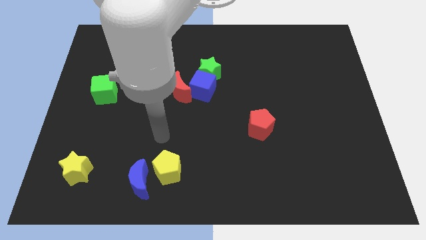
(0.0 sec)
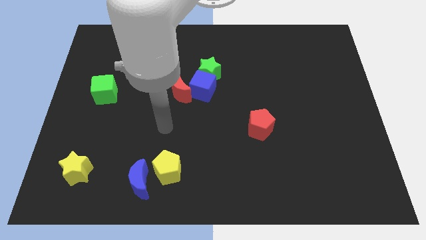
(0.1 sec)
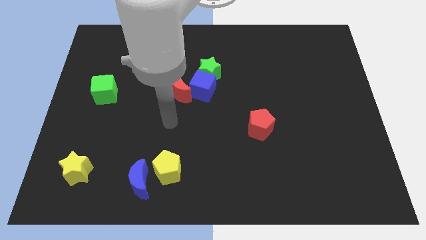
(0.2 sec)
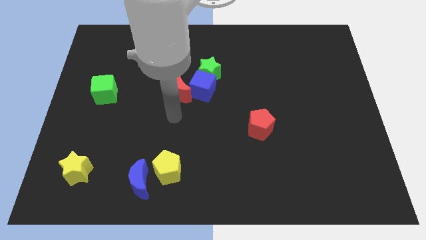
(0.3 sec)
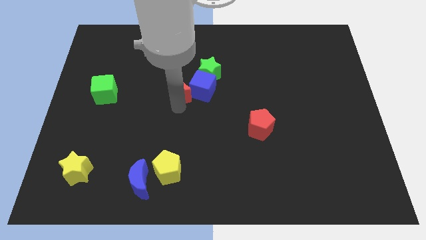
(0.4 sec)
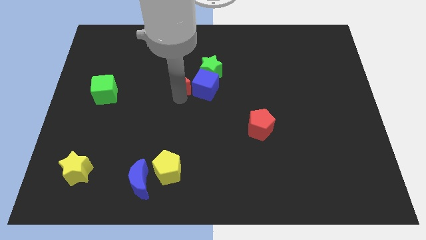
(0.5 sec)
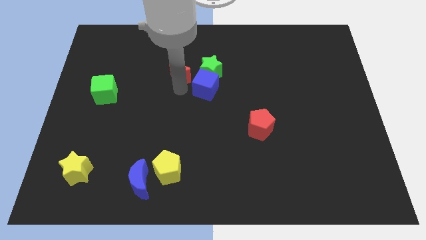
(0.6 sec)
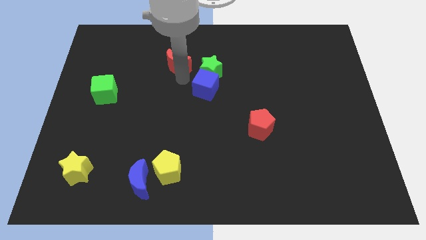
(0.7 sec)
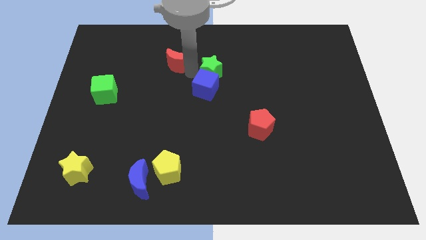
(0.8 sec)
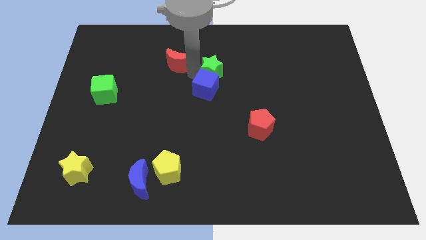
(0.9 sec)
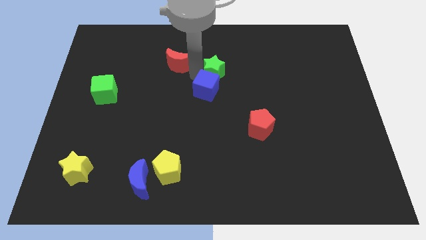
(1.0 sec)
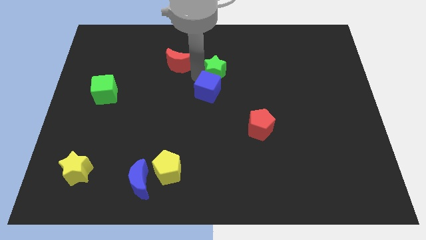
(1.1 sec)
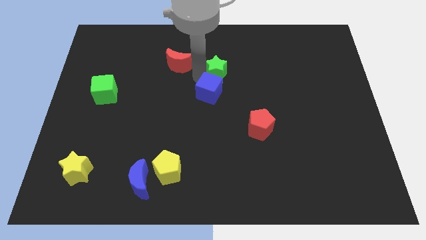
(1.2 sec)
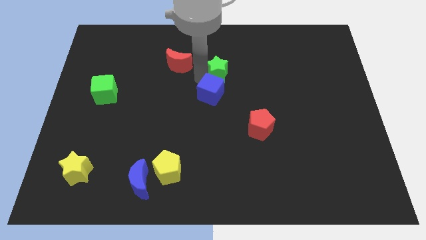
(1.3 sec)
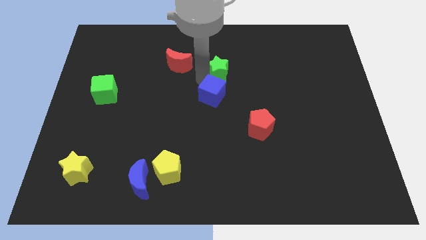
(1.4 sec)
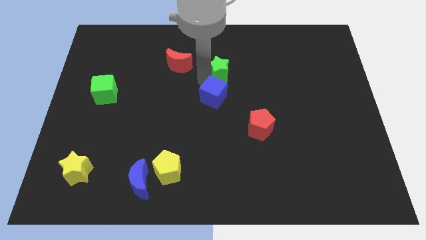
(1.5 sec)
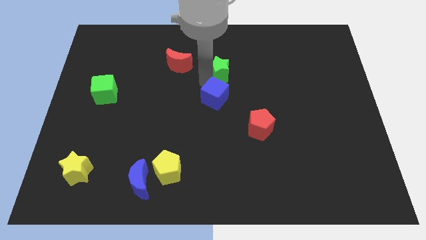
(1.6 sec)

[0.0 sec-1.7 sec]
separate the blue cube from the green star and red moon

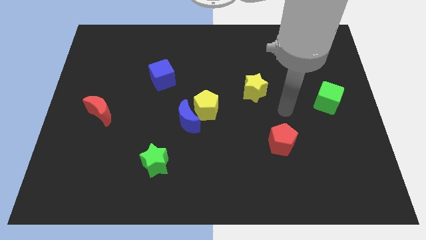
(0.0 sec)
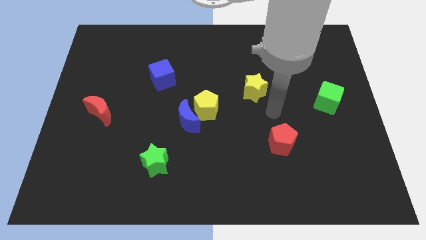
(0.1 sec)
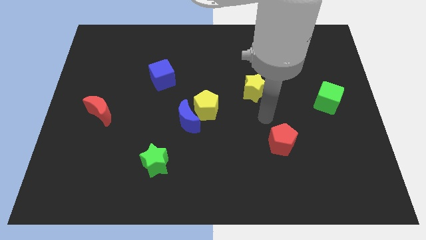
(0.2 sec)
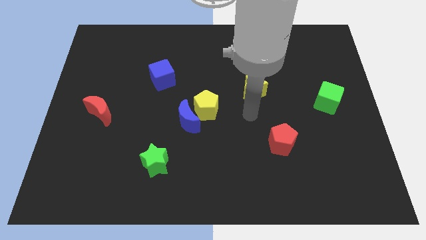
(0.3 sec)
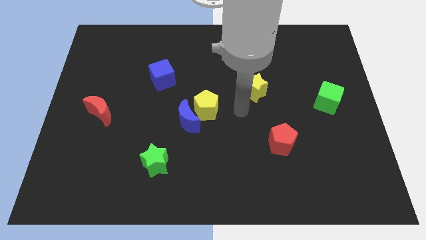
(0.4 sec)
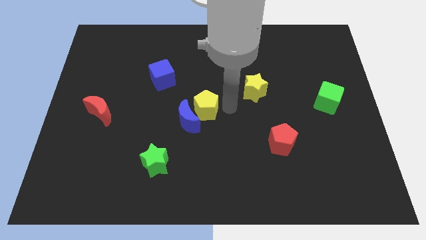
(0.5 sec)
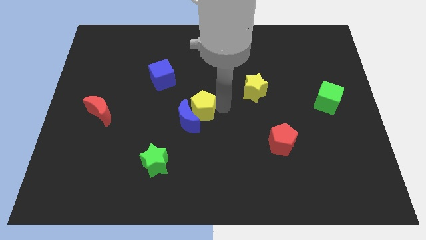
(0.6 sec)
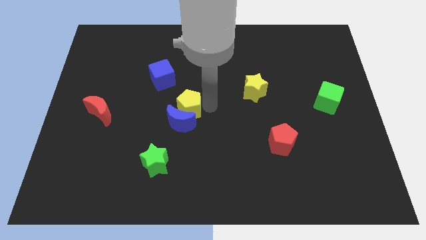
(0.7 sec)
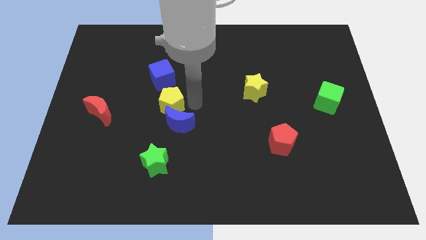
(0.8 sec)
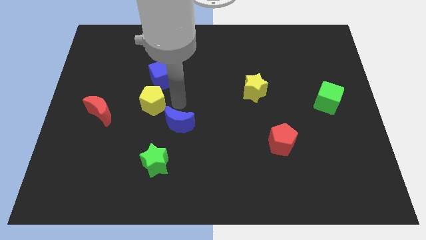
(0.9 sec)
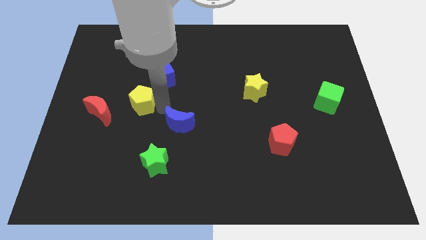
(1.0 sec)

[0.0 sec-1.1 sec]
separate the blue moon from the yellow pentagon

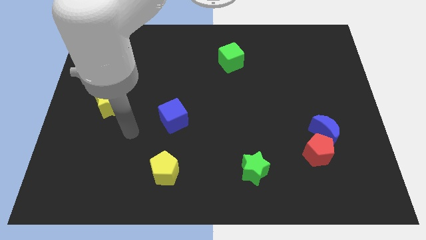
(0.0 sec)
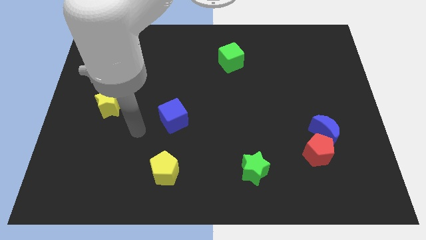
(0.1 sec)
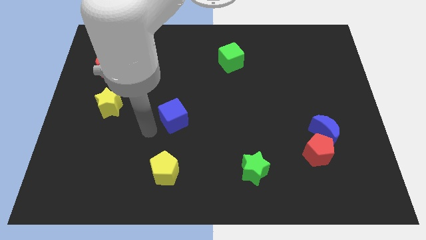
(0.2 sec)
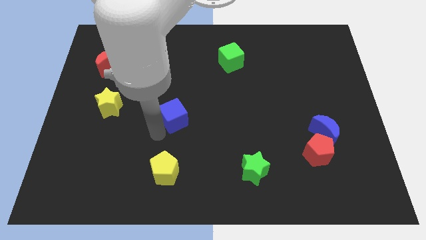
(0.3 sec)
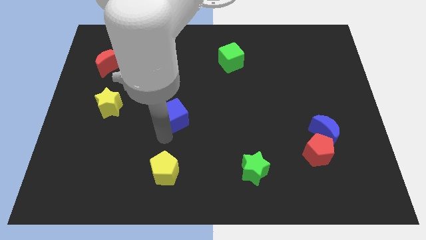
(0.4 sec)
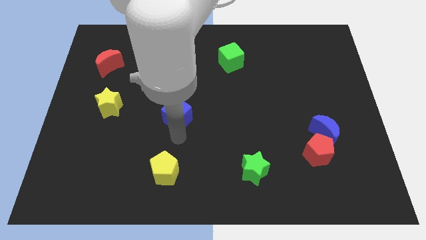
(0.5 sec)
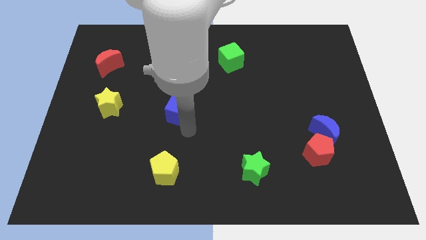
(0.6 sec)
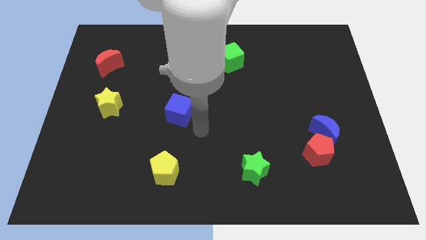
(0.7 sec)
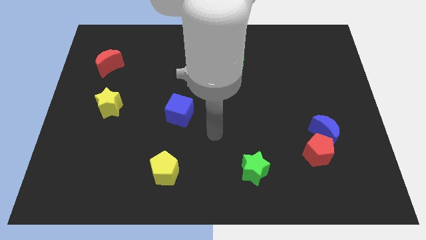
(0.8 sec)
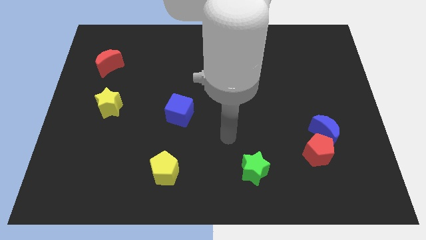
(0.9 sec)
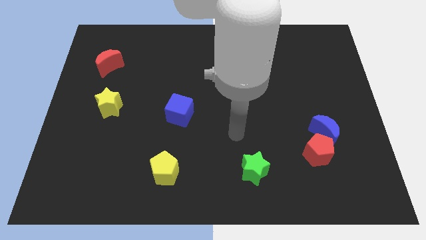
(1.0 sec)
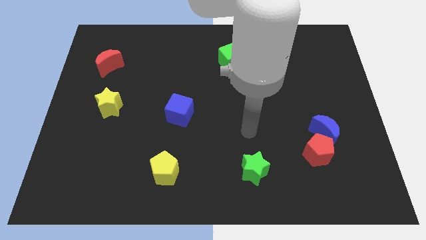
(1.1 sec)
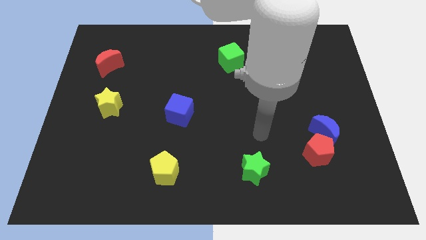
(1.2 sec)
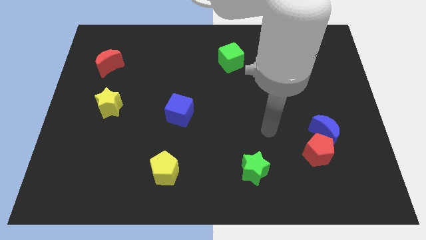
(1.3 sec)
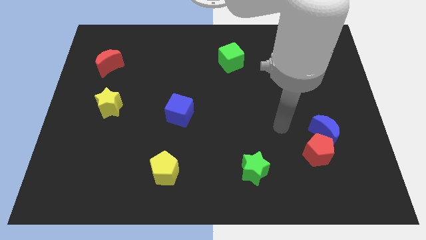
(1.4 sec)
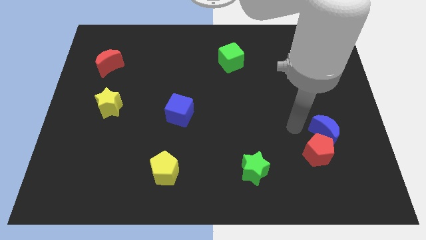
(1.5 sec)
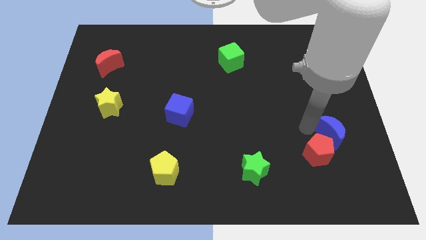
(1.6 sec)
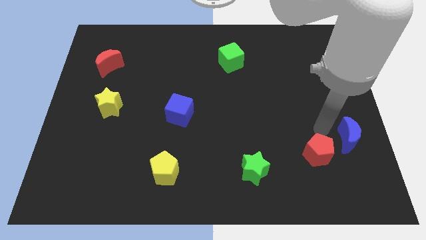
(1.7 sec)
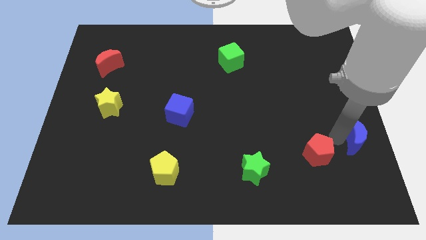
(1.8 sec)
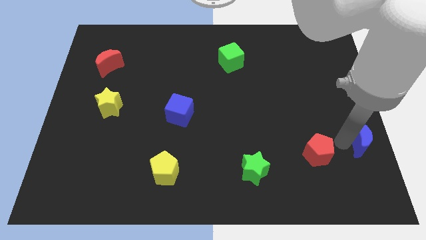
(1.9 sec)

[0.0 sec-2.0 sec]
pull the red pentagon apart from the blue moon

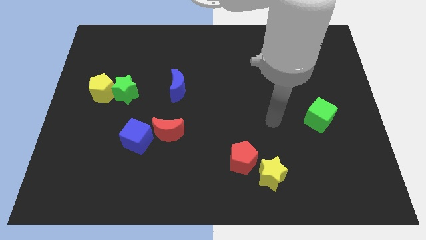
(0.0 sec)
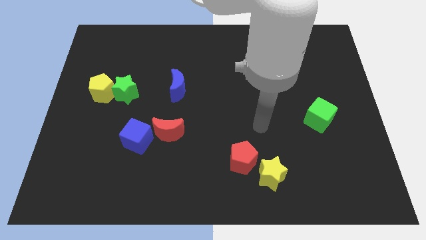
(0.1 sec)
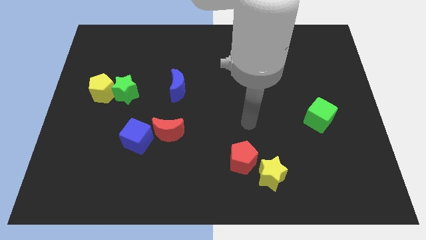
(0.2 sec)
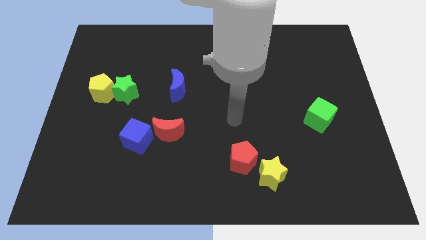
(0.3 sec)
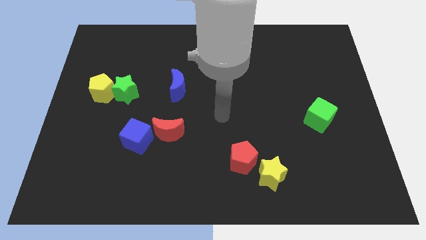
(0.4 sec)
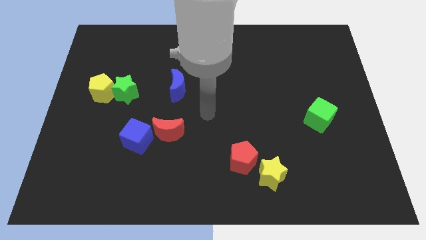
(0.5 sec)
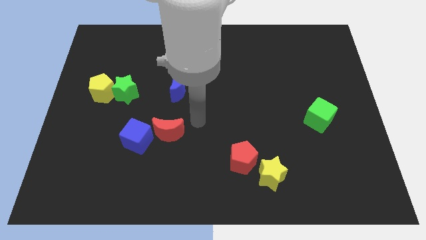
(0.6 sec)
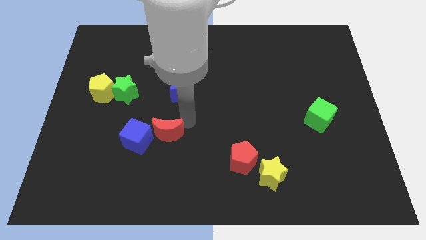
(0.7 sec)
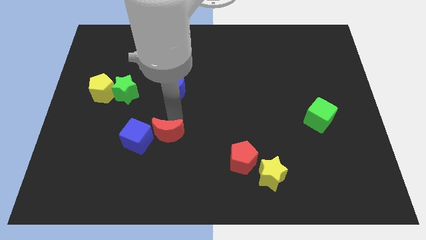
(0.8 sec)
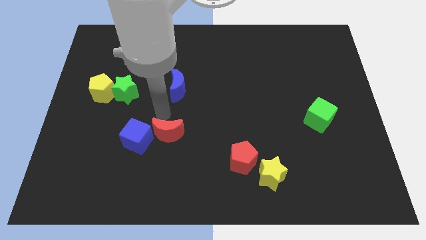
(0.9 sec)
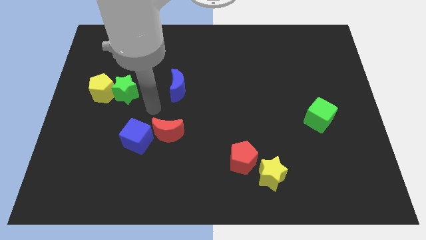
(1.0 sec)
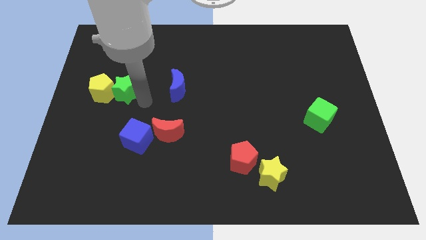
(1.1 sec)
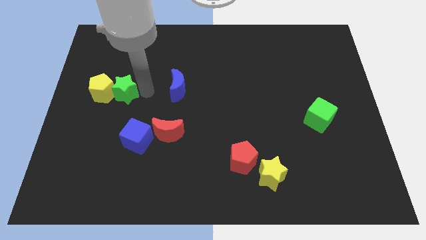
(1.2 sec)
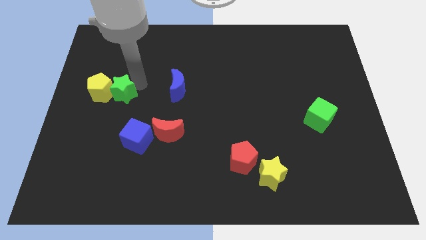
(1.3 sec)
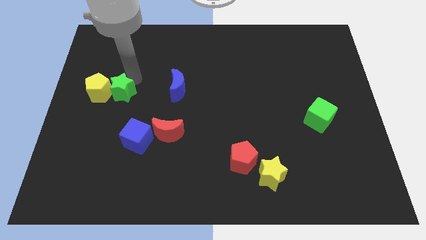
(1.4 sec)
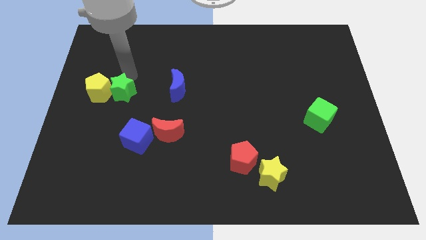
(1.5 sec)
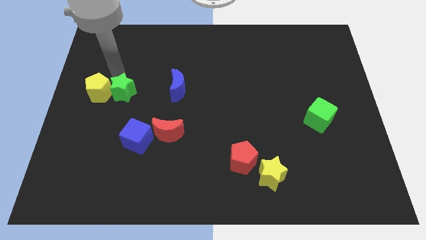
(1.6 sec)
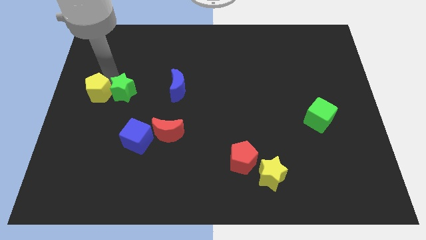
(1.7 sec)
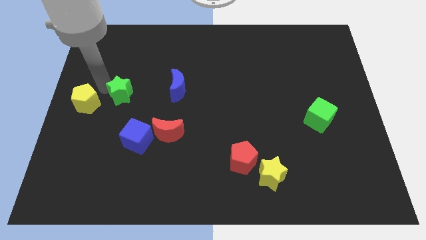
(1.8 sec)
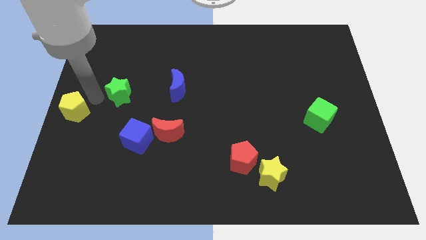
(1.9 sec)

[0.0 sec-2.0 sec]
separate the green star from the yellow pentagon

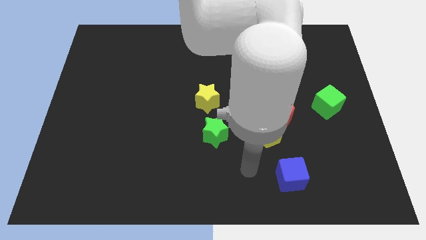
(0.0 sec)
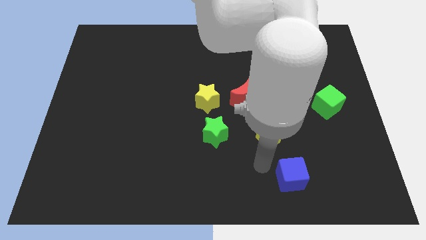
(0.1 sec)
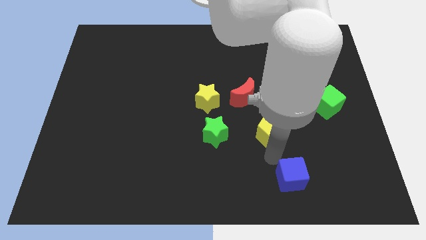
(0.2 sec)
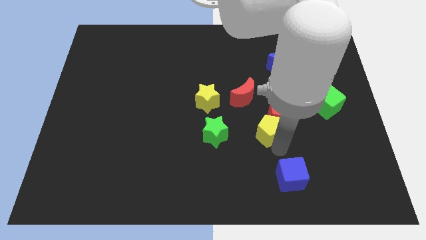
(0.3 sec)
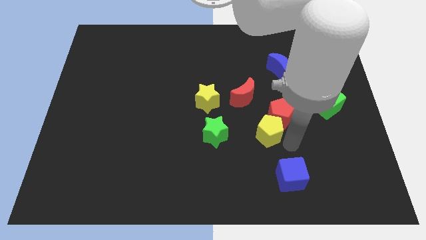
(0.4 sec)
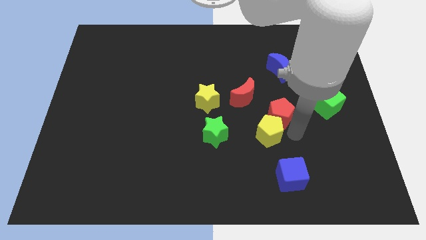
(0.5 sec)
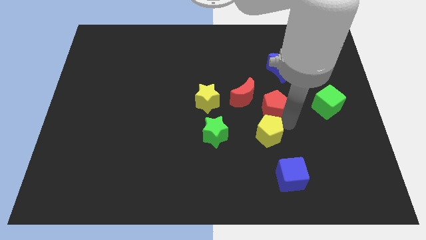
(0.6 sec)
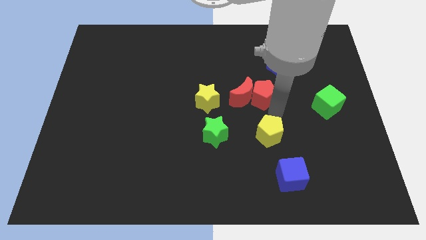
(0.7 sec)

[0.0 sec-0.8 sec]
separate the yellow pentagon from the red pentagon

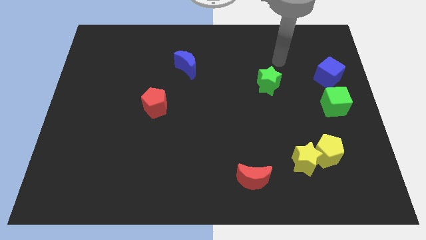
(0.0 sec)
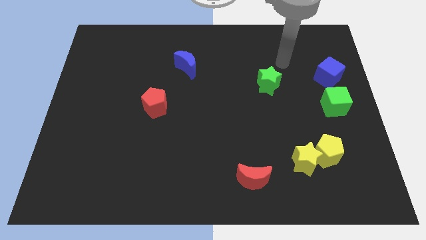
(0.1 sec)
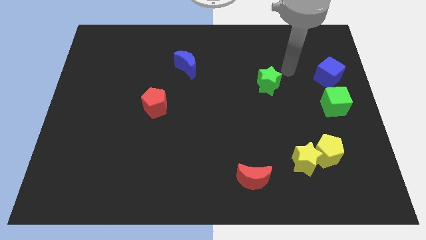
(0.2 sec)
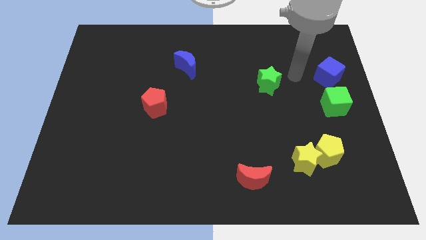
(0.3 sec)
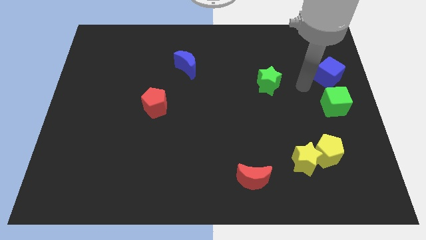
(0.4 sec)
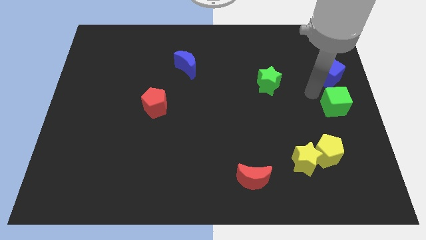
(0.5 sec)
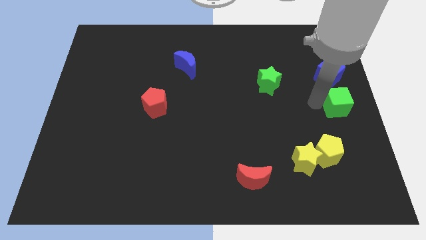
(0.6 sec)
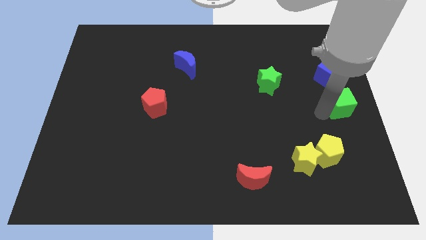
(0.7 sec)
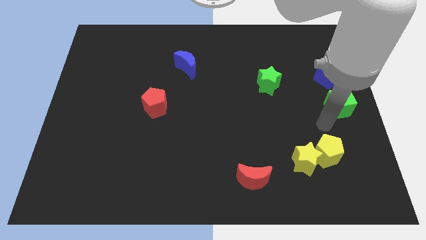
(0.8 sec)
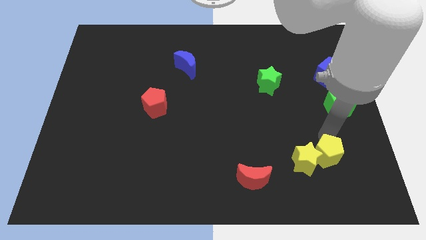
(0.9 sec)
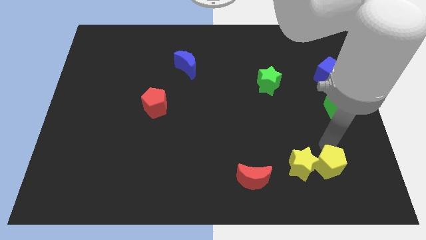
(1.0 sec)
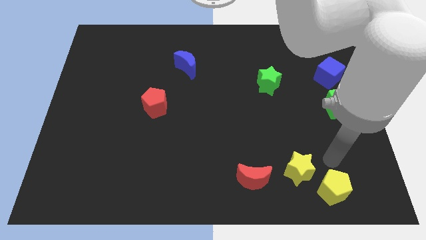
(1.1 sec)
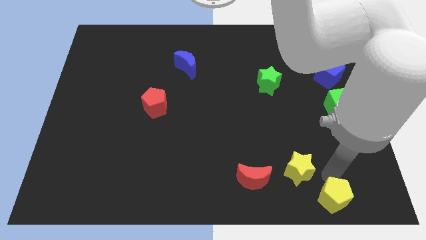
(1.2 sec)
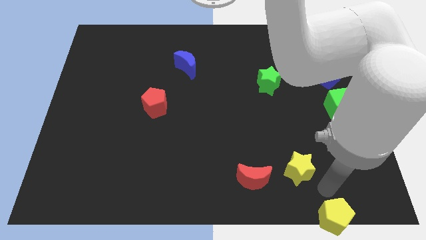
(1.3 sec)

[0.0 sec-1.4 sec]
move the yellow star away from the yellow pentagon

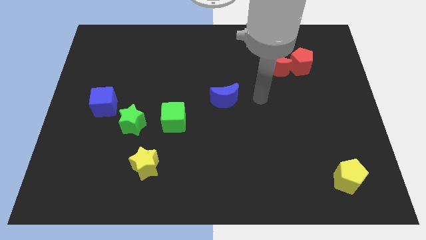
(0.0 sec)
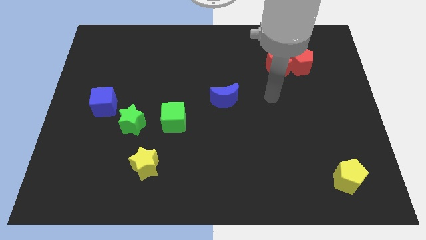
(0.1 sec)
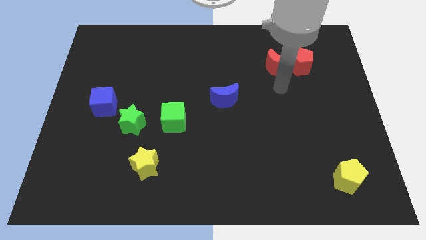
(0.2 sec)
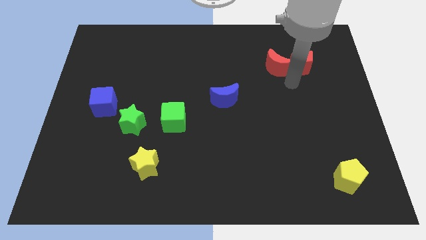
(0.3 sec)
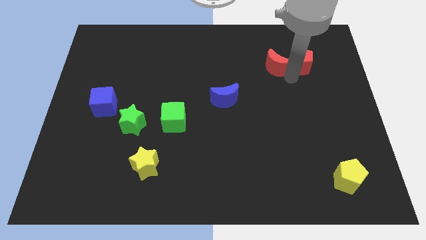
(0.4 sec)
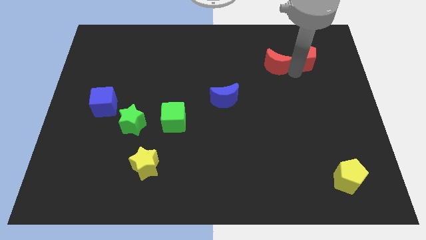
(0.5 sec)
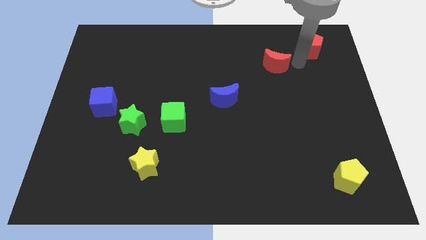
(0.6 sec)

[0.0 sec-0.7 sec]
separate the red moon from the red pentagon
